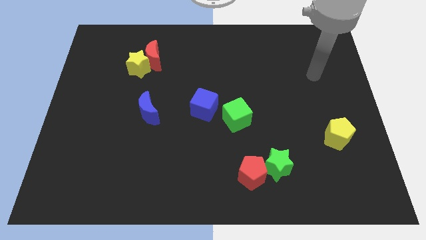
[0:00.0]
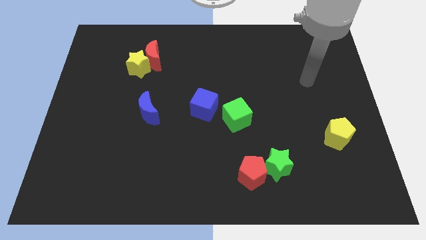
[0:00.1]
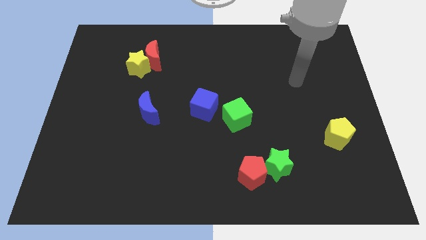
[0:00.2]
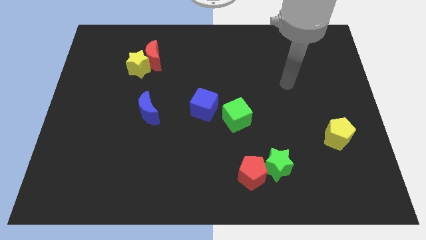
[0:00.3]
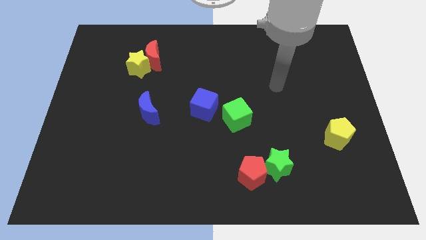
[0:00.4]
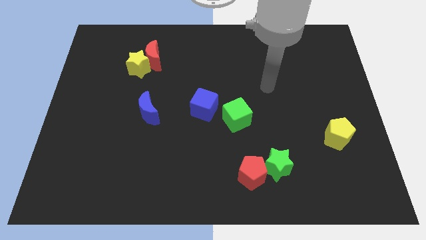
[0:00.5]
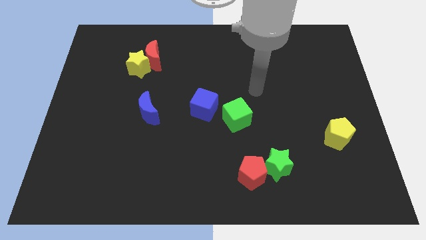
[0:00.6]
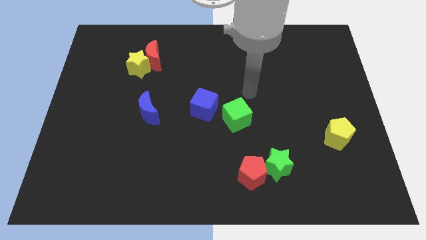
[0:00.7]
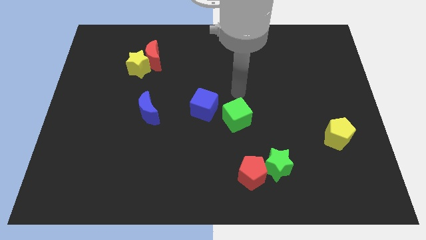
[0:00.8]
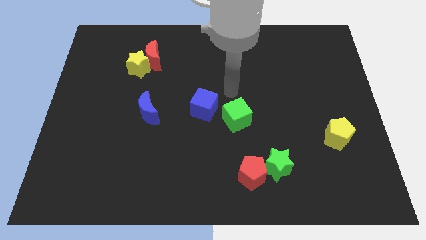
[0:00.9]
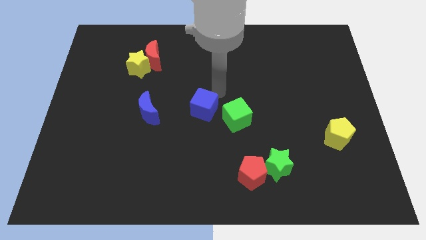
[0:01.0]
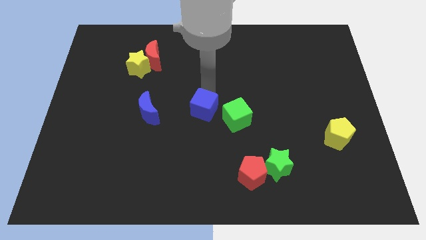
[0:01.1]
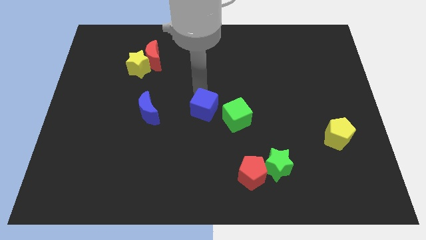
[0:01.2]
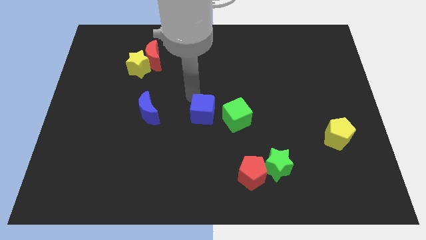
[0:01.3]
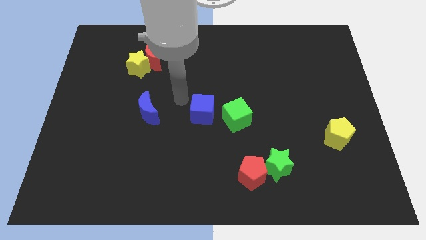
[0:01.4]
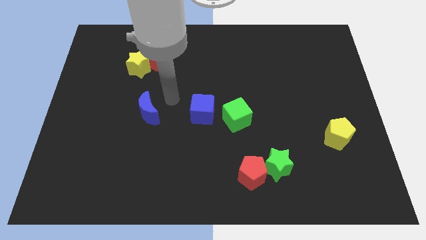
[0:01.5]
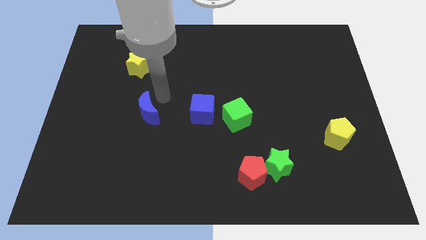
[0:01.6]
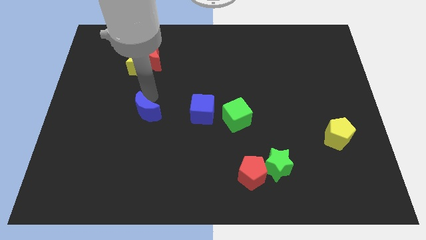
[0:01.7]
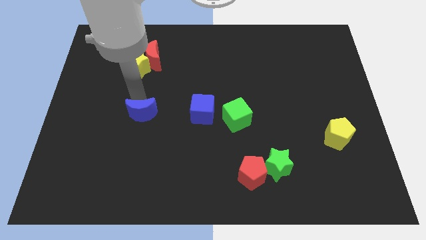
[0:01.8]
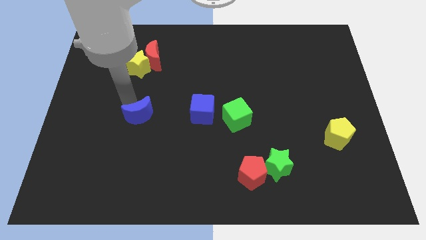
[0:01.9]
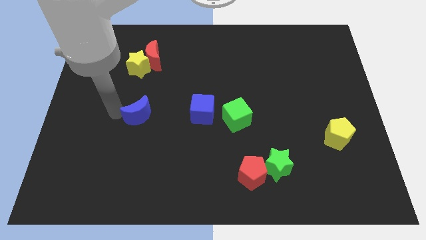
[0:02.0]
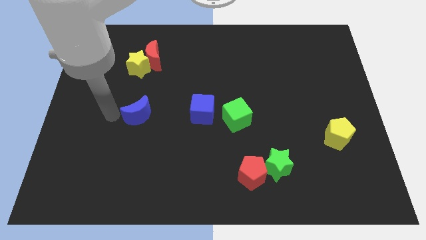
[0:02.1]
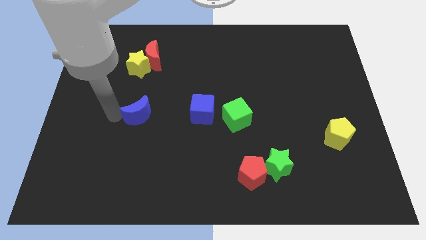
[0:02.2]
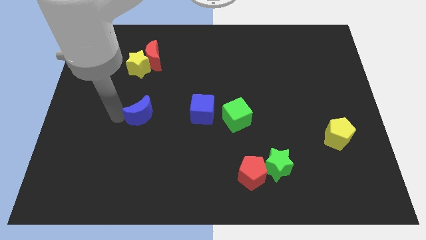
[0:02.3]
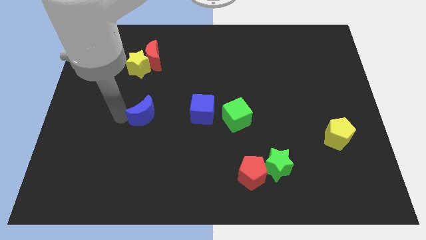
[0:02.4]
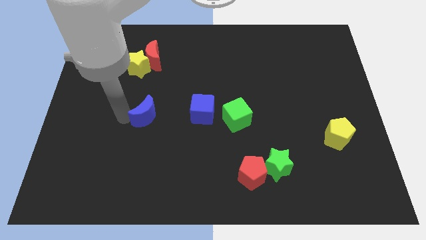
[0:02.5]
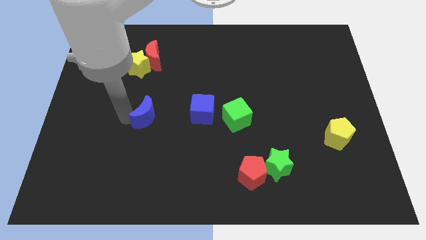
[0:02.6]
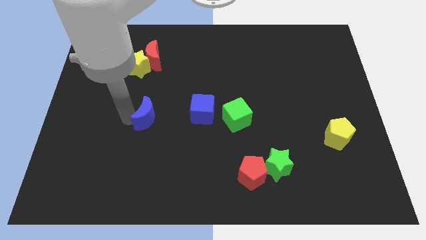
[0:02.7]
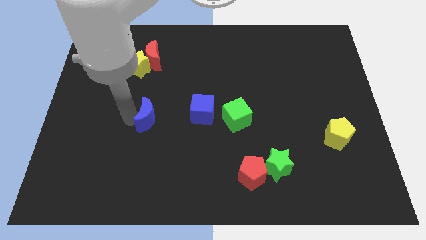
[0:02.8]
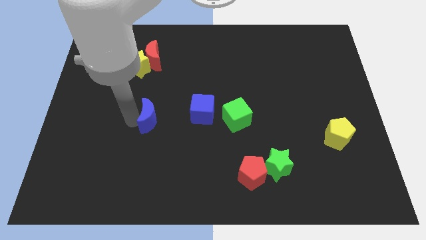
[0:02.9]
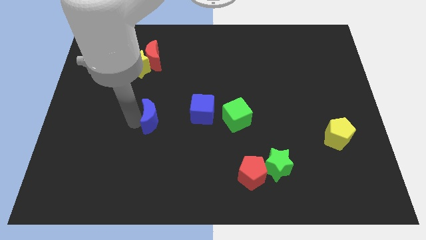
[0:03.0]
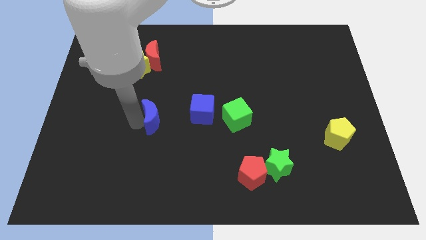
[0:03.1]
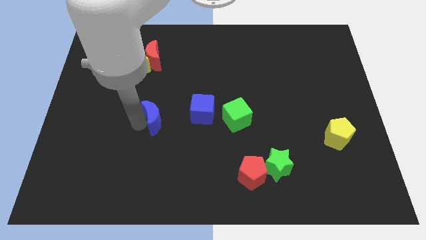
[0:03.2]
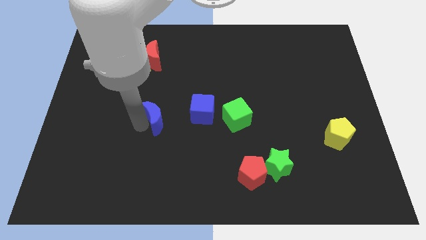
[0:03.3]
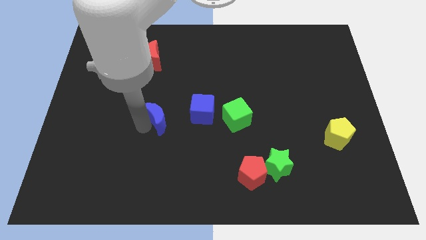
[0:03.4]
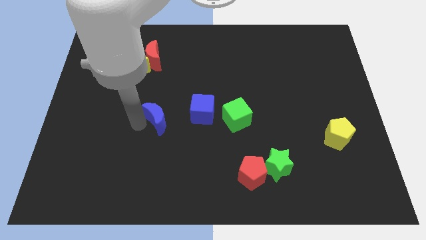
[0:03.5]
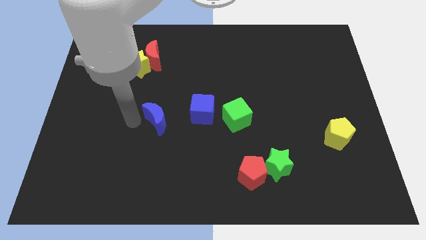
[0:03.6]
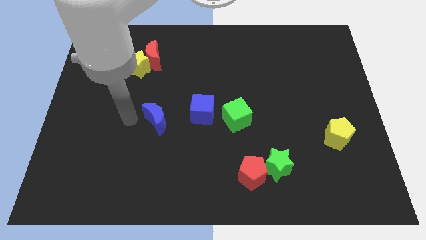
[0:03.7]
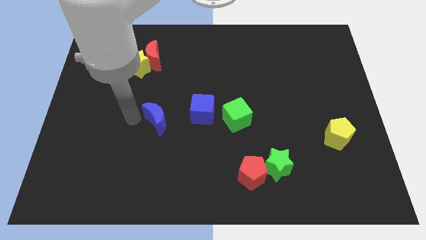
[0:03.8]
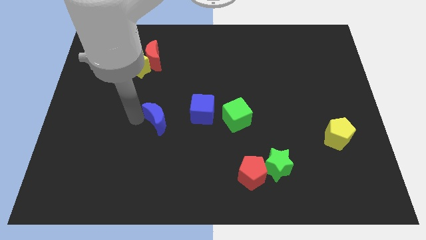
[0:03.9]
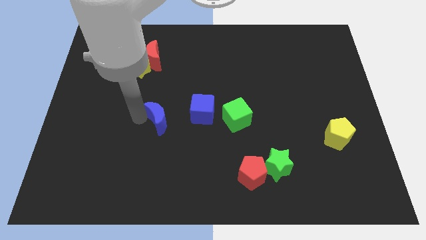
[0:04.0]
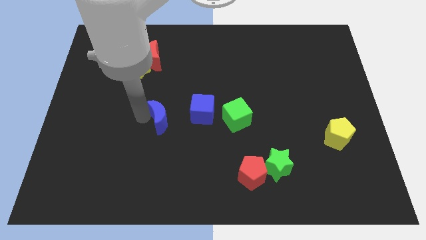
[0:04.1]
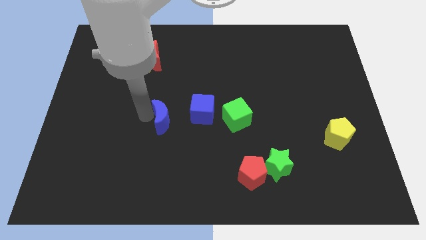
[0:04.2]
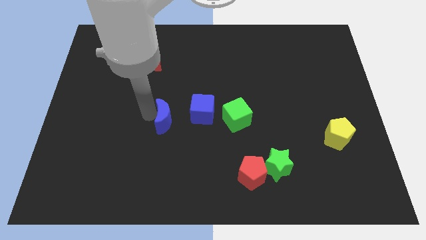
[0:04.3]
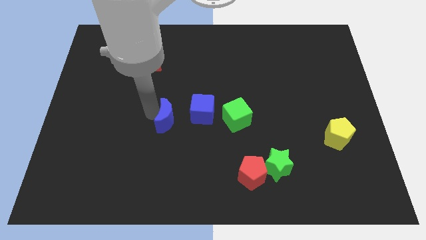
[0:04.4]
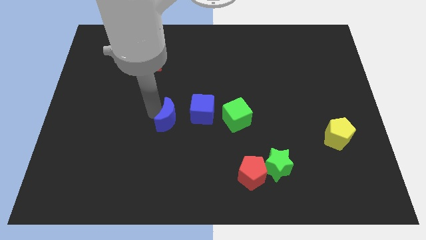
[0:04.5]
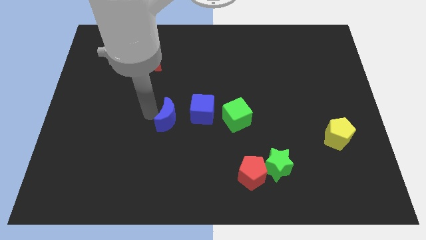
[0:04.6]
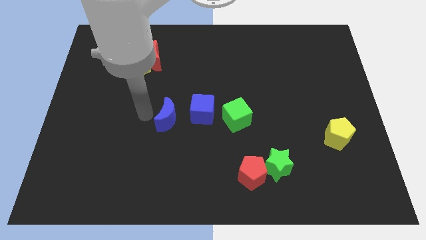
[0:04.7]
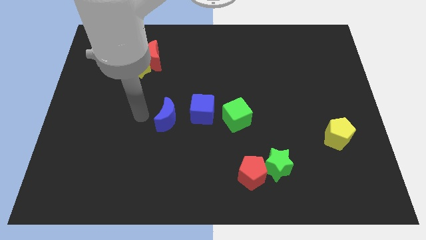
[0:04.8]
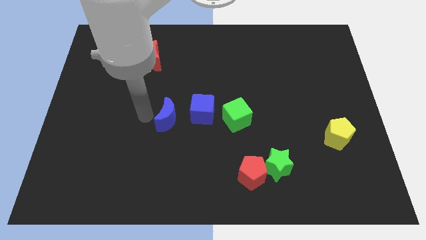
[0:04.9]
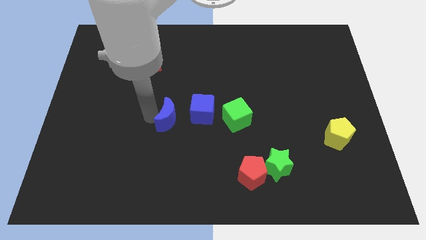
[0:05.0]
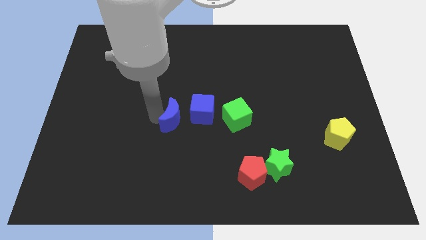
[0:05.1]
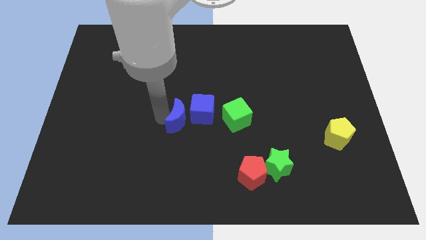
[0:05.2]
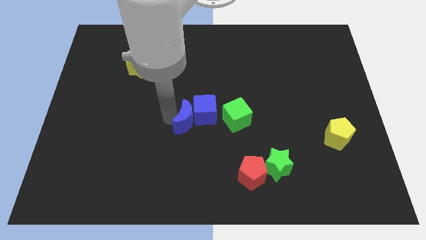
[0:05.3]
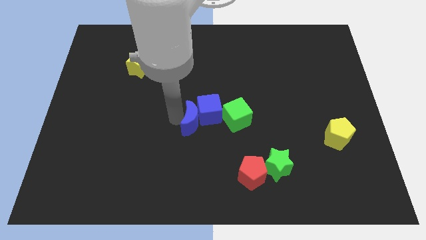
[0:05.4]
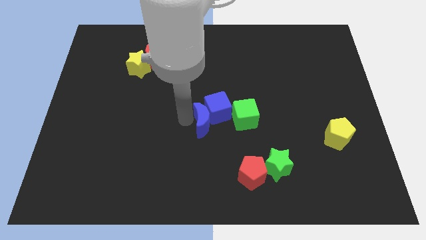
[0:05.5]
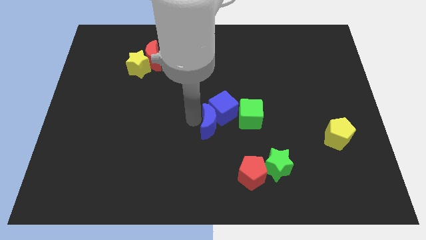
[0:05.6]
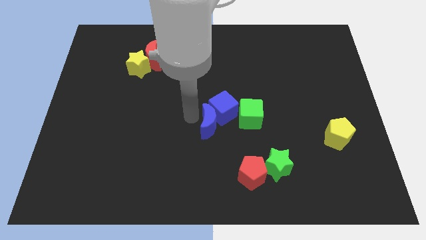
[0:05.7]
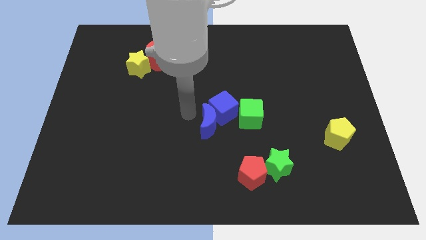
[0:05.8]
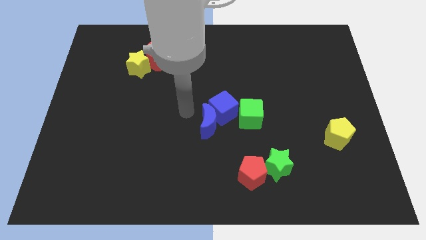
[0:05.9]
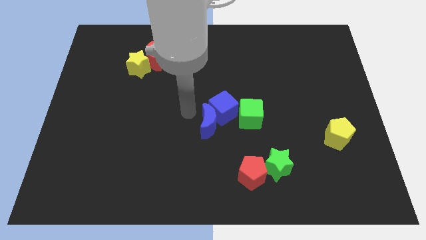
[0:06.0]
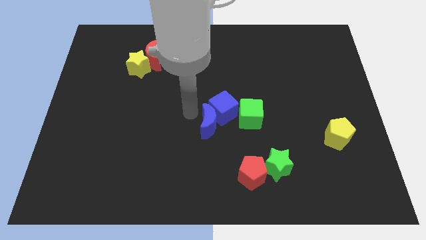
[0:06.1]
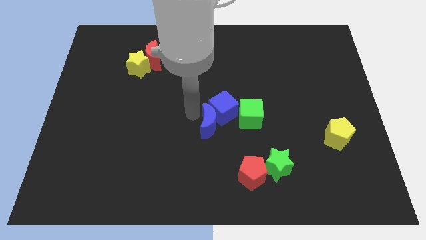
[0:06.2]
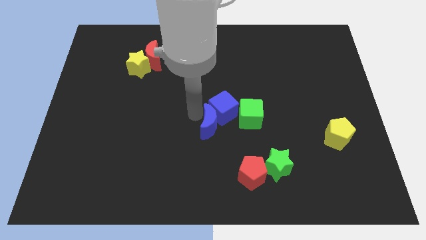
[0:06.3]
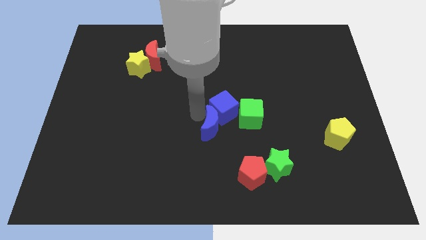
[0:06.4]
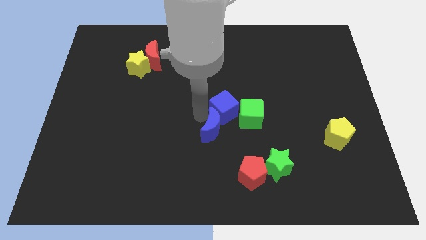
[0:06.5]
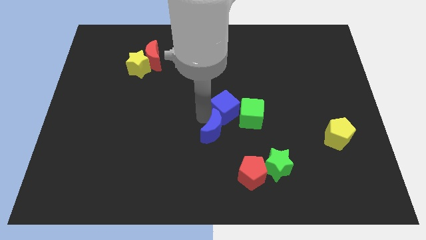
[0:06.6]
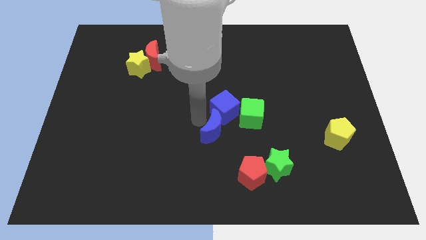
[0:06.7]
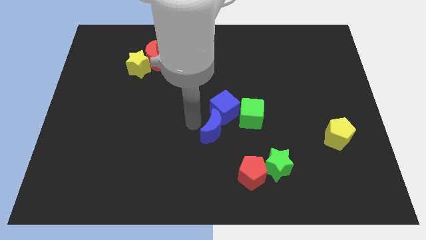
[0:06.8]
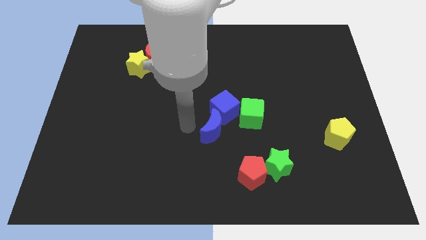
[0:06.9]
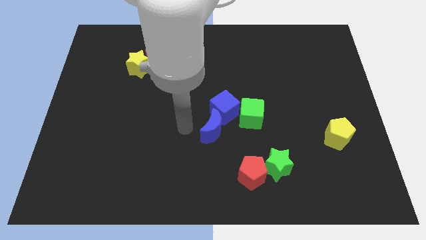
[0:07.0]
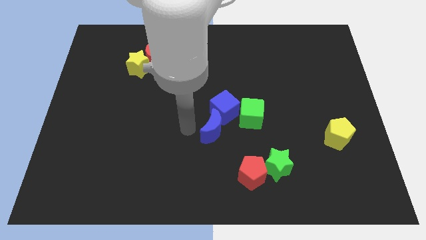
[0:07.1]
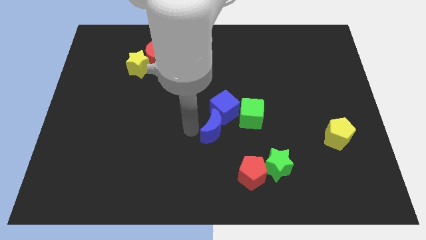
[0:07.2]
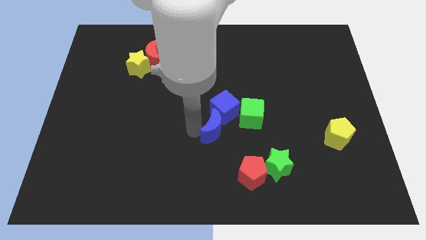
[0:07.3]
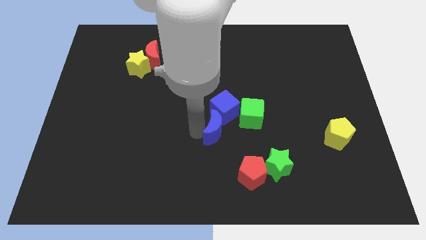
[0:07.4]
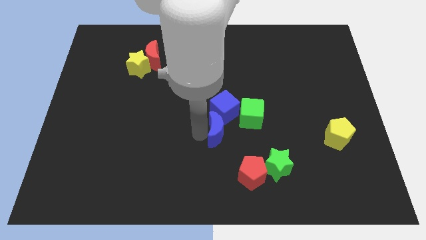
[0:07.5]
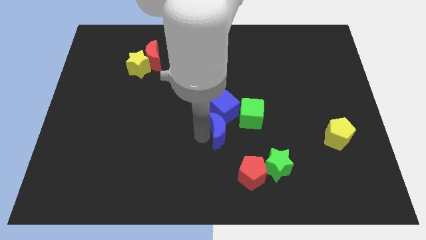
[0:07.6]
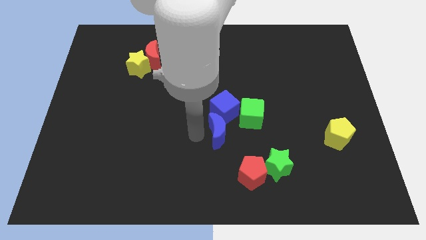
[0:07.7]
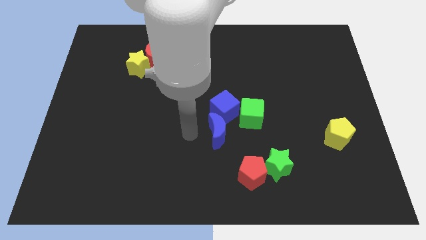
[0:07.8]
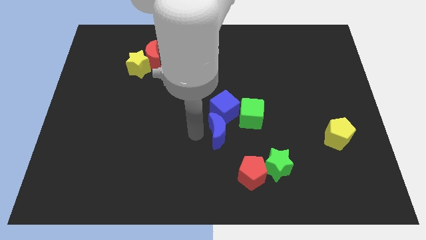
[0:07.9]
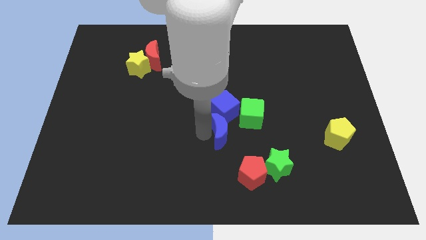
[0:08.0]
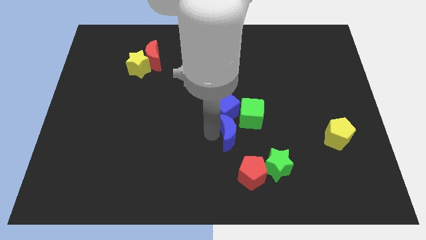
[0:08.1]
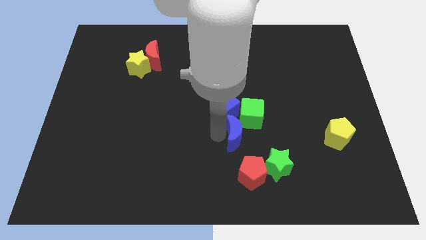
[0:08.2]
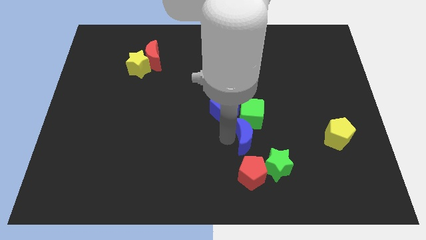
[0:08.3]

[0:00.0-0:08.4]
move the blue moon right
